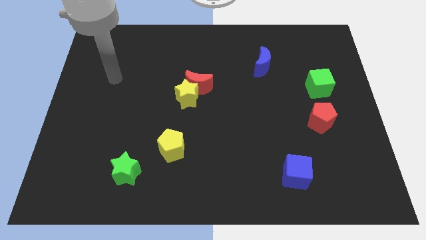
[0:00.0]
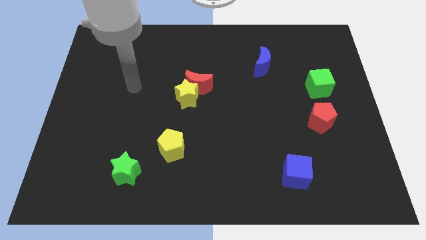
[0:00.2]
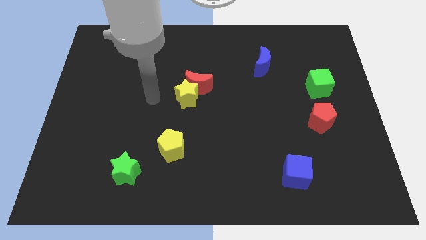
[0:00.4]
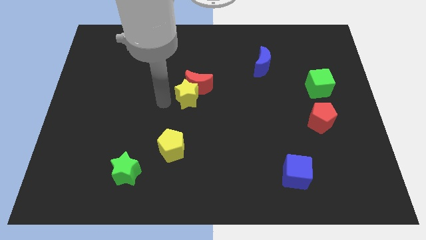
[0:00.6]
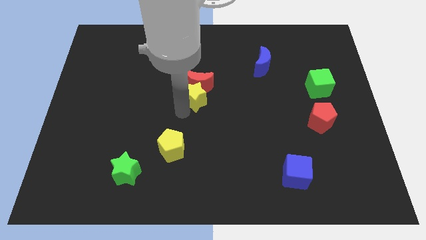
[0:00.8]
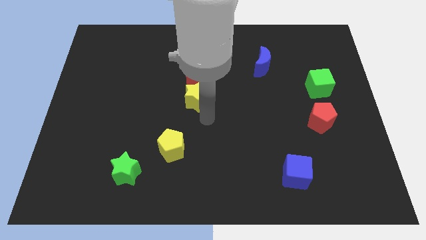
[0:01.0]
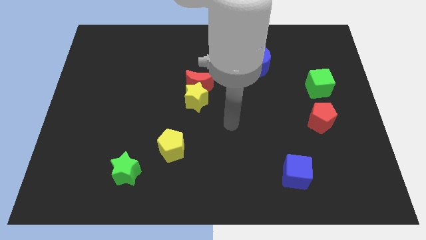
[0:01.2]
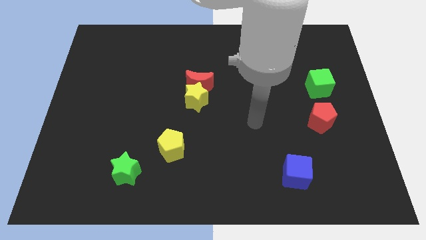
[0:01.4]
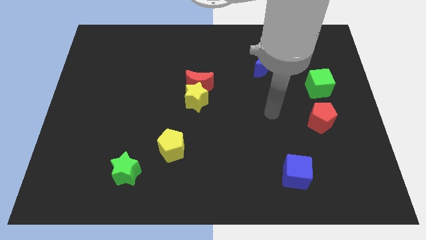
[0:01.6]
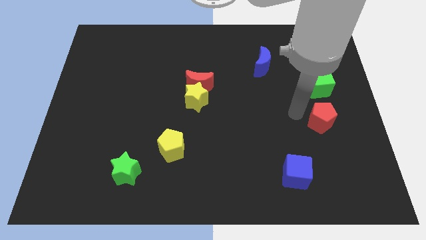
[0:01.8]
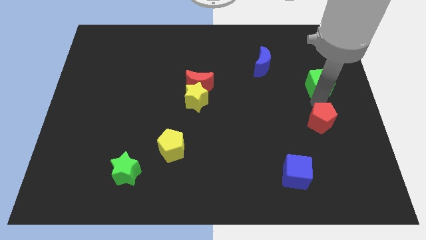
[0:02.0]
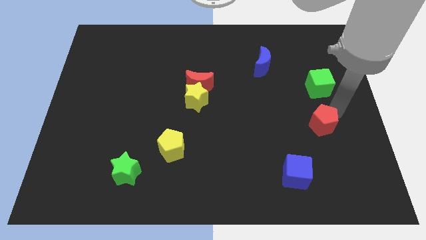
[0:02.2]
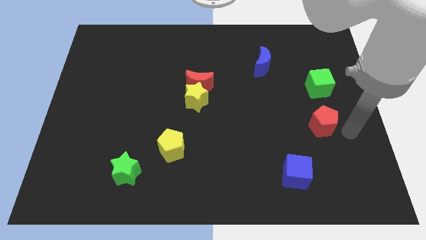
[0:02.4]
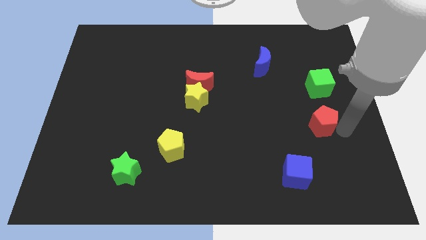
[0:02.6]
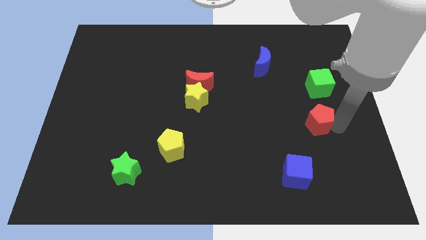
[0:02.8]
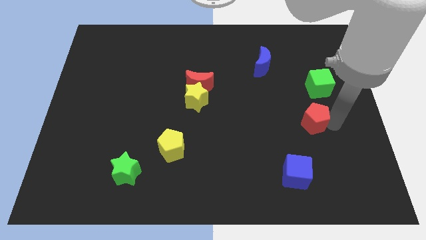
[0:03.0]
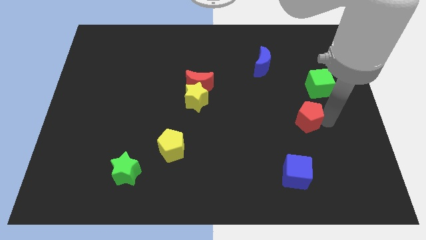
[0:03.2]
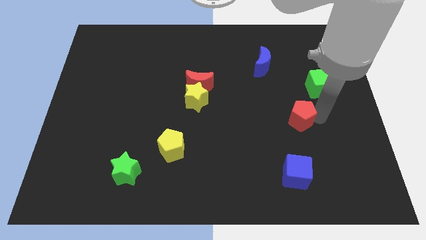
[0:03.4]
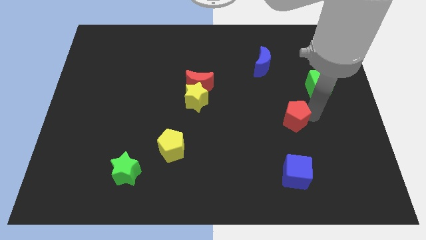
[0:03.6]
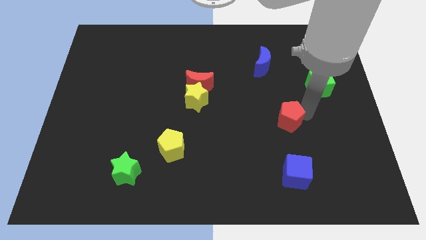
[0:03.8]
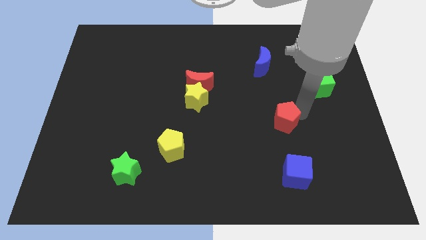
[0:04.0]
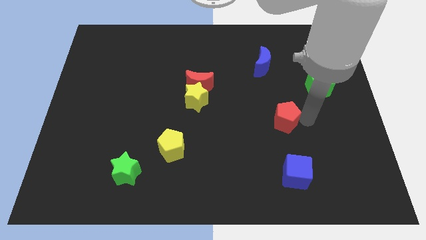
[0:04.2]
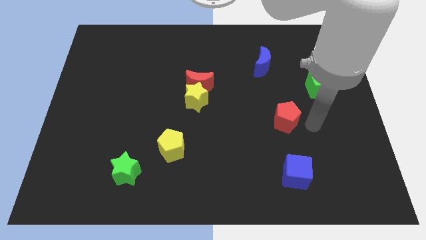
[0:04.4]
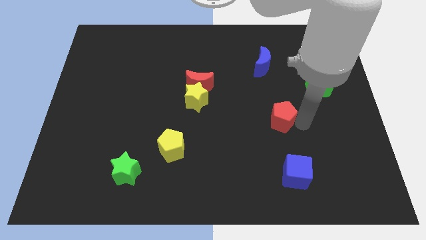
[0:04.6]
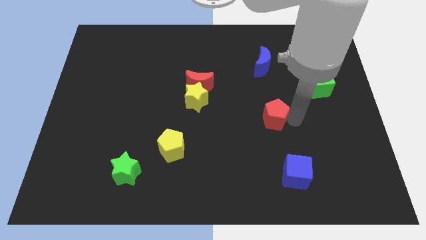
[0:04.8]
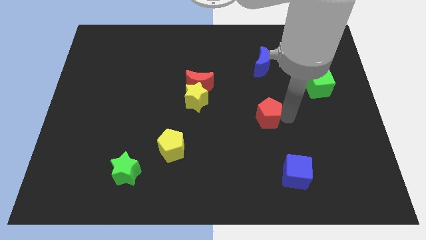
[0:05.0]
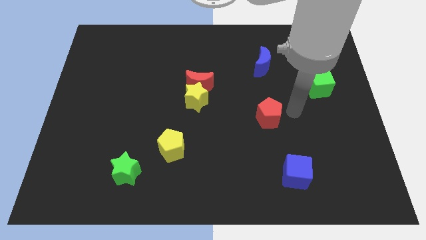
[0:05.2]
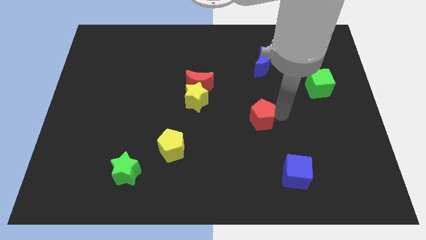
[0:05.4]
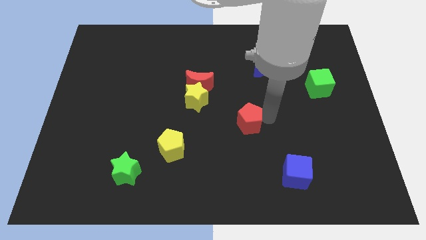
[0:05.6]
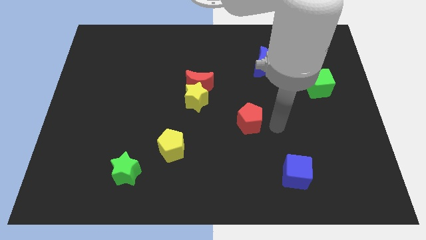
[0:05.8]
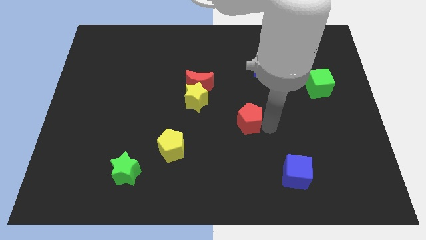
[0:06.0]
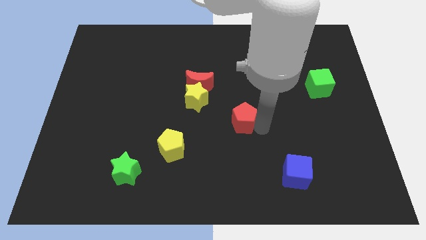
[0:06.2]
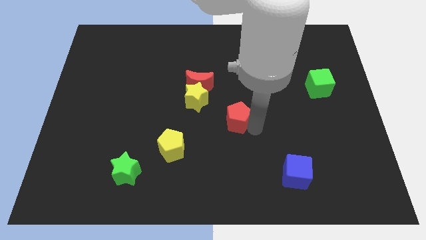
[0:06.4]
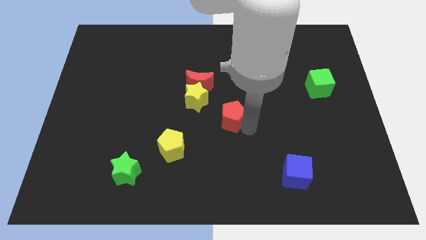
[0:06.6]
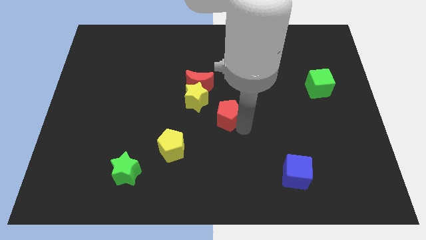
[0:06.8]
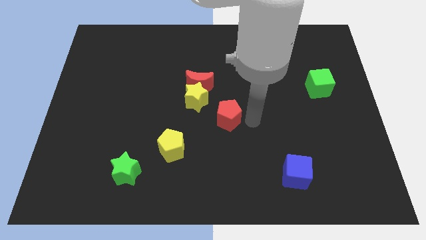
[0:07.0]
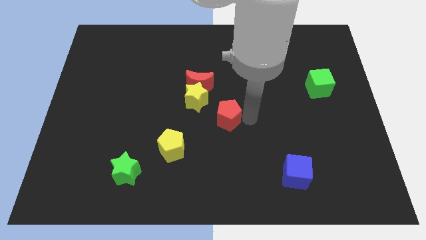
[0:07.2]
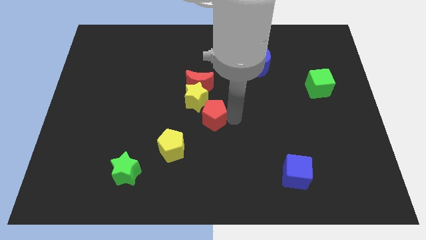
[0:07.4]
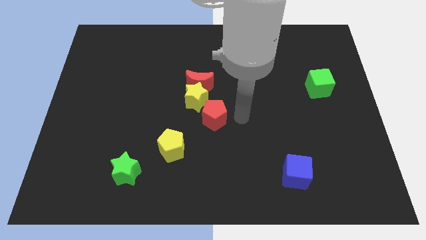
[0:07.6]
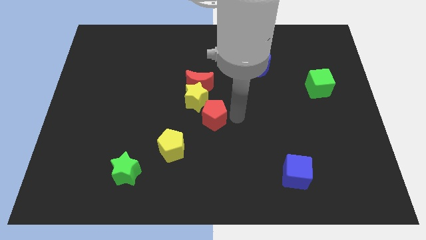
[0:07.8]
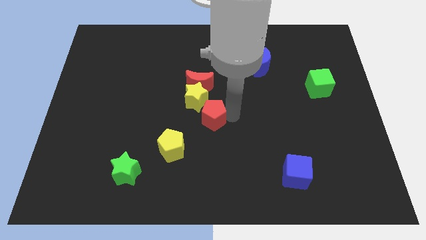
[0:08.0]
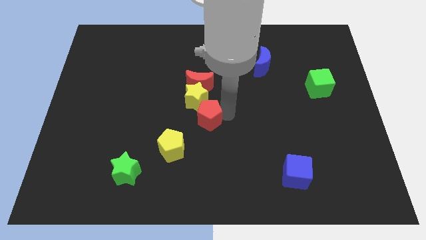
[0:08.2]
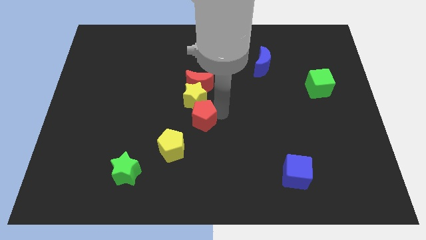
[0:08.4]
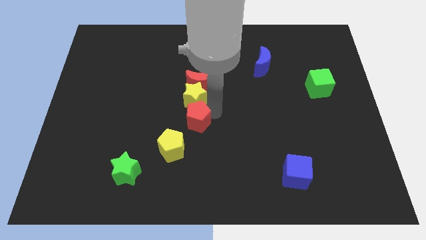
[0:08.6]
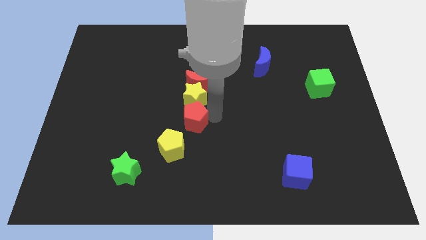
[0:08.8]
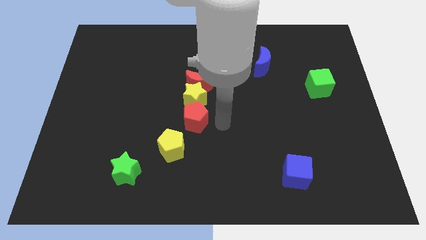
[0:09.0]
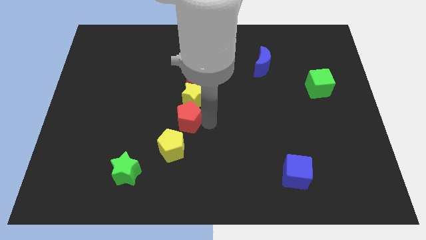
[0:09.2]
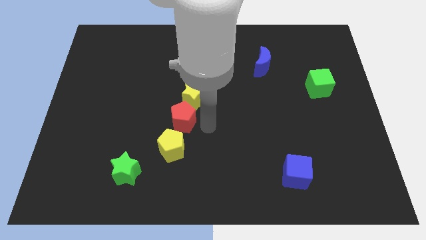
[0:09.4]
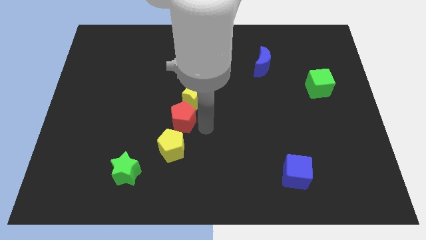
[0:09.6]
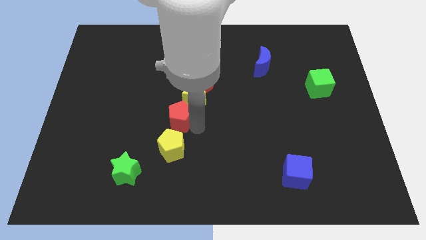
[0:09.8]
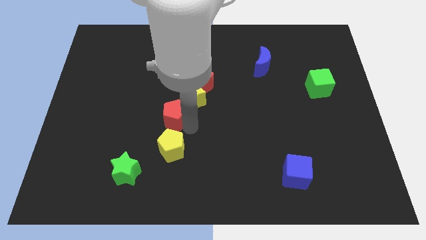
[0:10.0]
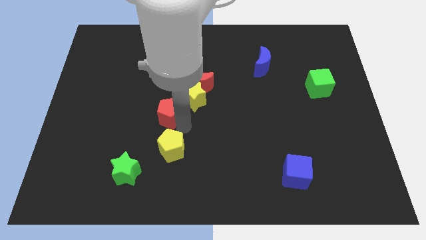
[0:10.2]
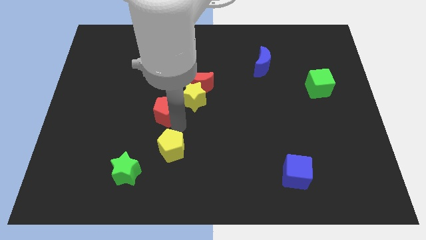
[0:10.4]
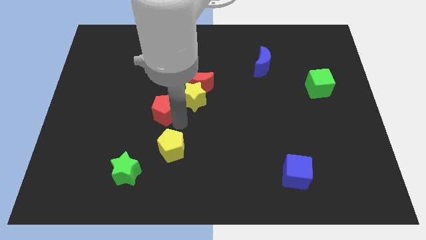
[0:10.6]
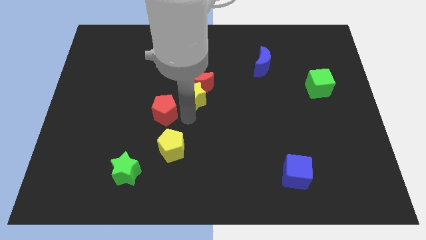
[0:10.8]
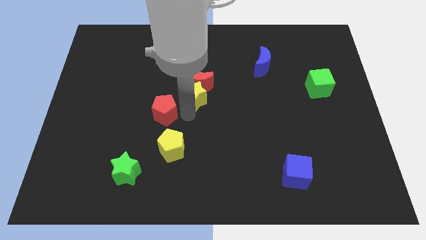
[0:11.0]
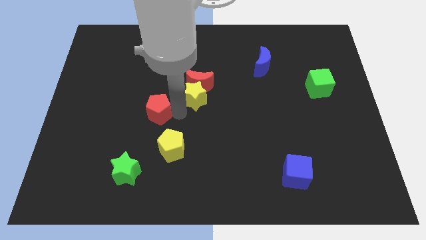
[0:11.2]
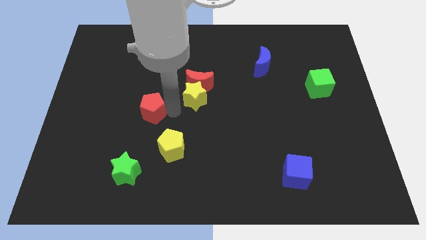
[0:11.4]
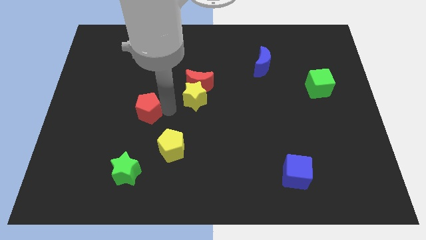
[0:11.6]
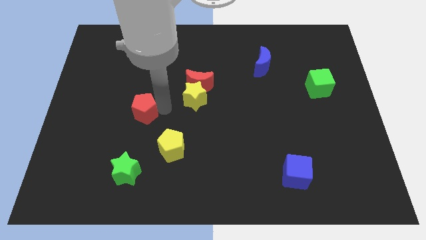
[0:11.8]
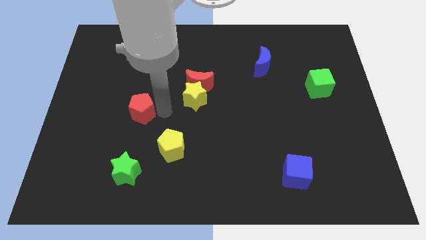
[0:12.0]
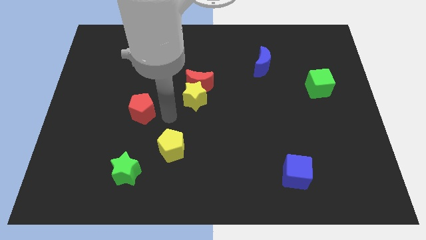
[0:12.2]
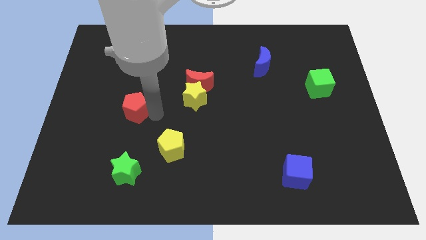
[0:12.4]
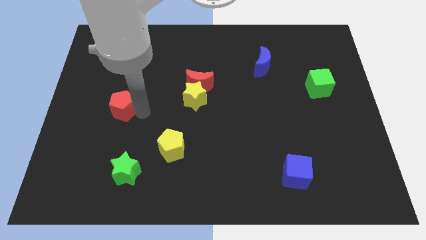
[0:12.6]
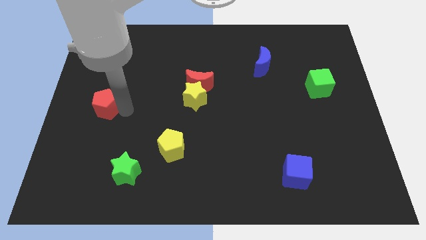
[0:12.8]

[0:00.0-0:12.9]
put the red pentagon to the left side

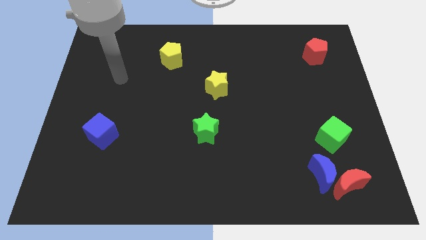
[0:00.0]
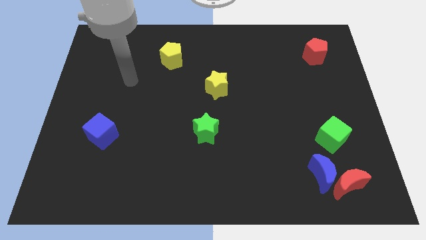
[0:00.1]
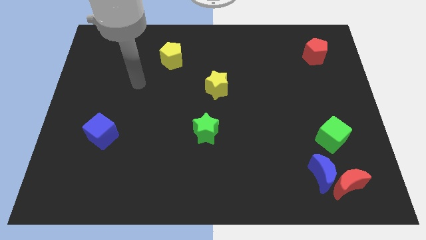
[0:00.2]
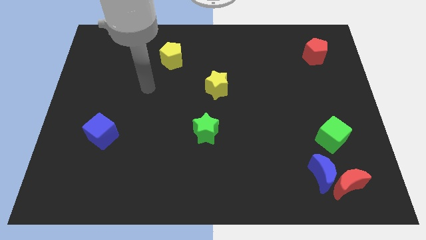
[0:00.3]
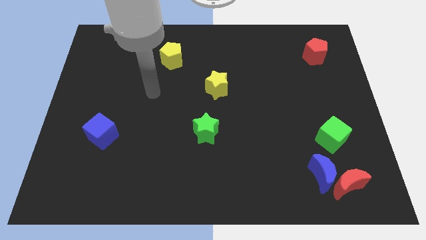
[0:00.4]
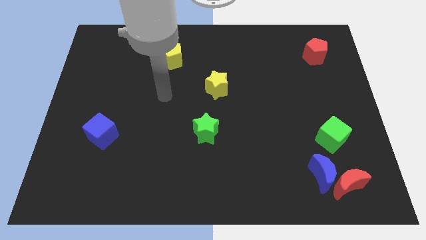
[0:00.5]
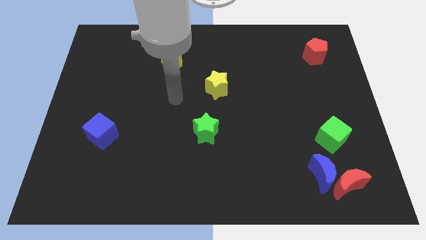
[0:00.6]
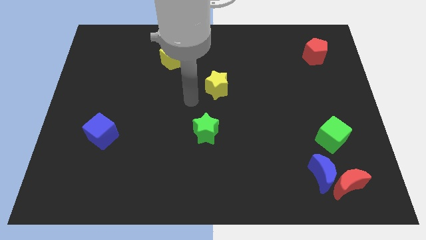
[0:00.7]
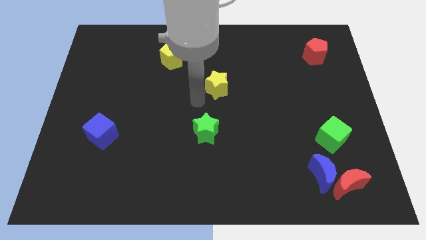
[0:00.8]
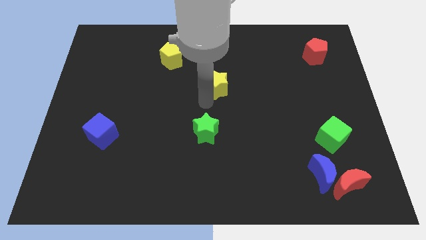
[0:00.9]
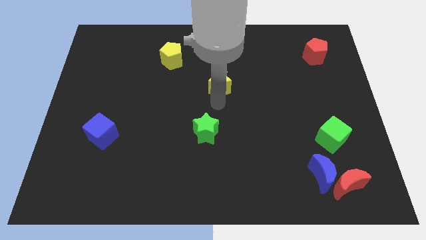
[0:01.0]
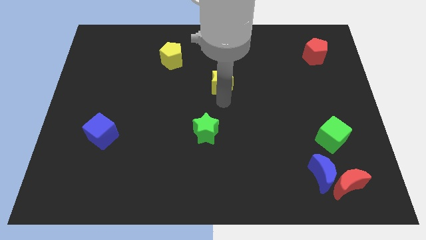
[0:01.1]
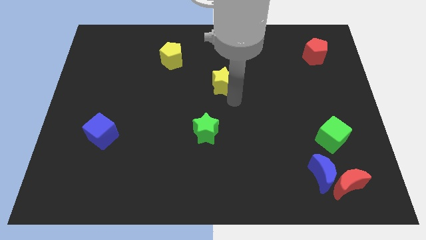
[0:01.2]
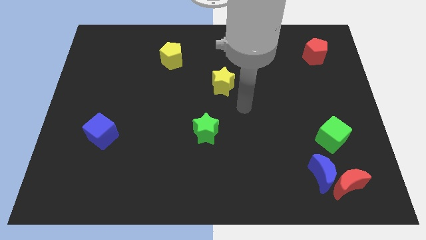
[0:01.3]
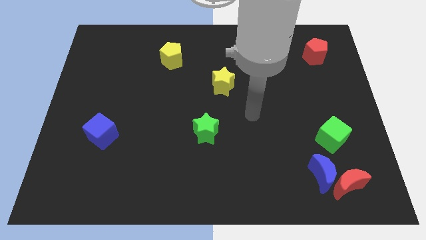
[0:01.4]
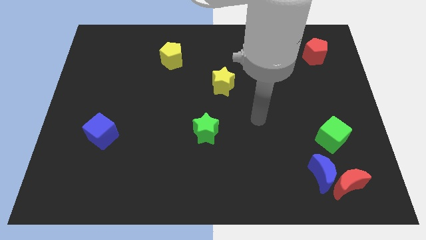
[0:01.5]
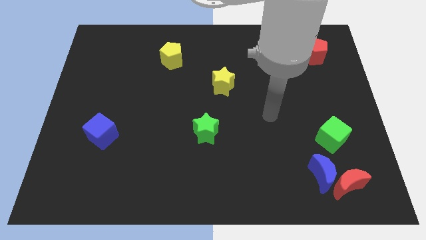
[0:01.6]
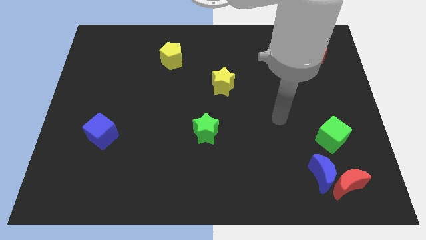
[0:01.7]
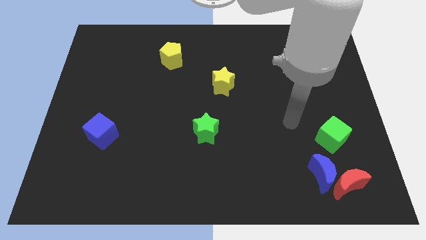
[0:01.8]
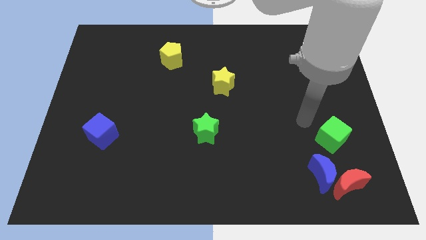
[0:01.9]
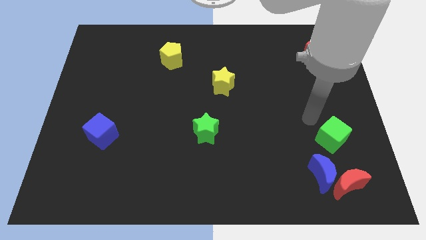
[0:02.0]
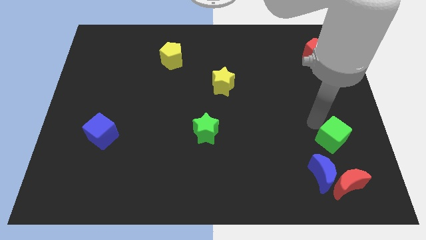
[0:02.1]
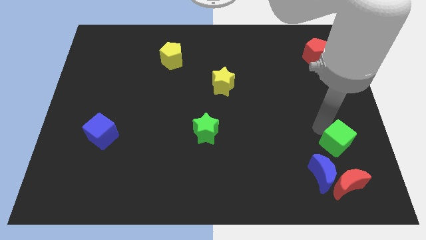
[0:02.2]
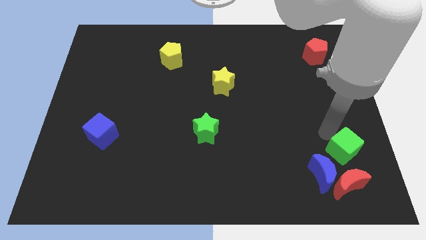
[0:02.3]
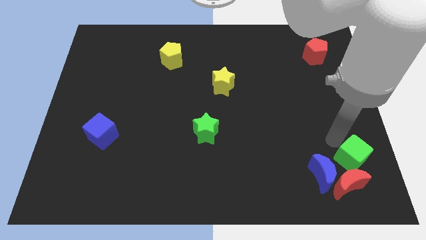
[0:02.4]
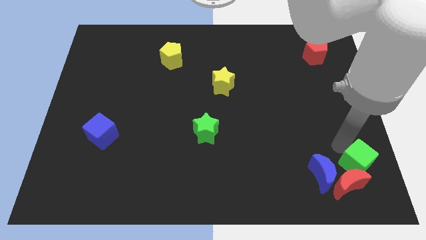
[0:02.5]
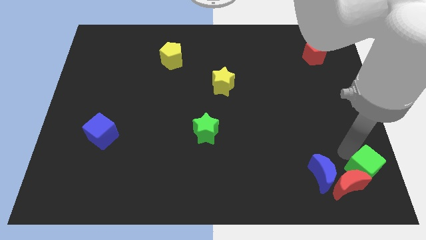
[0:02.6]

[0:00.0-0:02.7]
push the green cube to the bottom right corner
